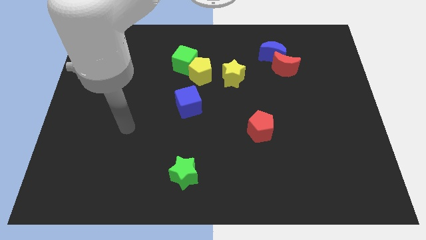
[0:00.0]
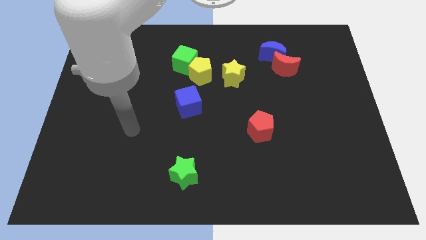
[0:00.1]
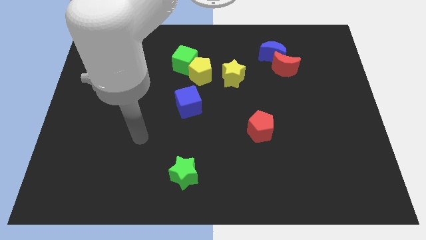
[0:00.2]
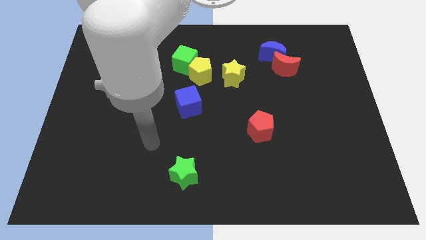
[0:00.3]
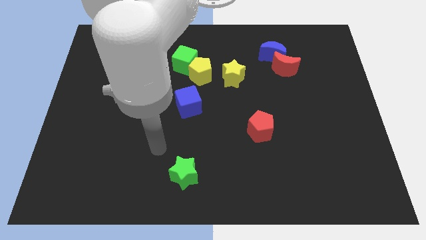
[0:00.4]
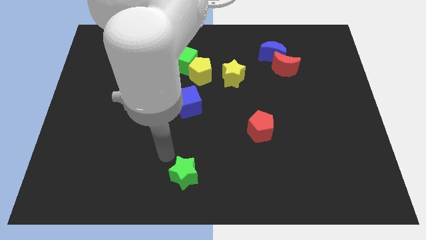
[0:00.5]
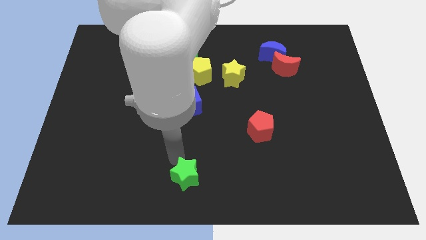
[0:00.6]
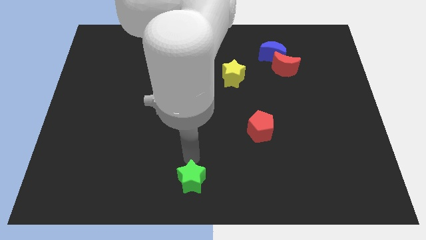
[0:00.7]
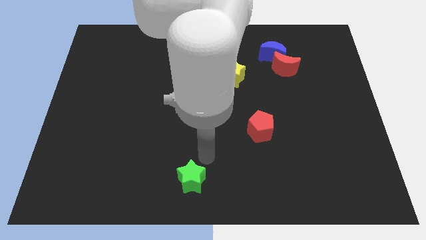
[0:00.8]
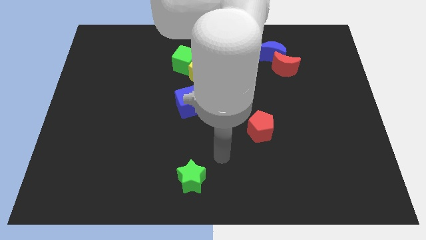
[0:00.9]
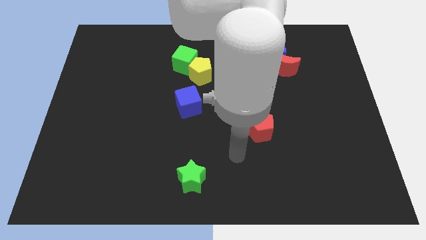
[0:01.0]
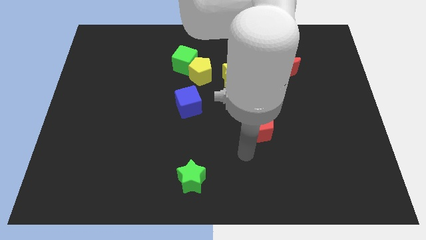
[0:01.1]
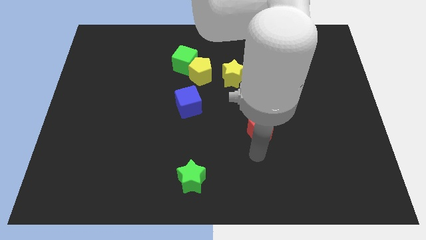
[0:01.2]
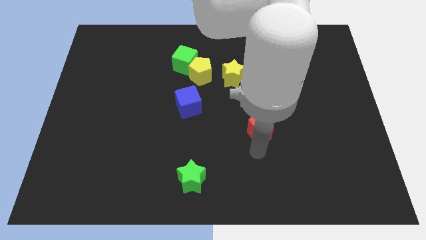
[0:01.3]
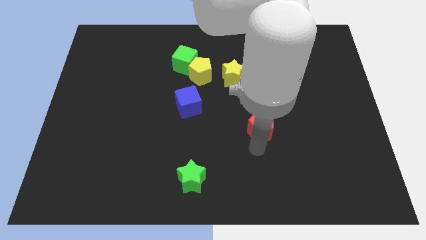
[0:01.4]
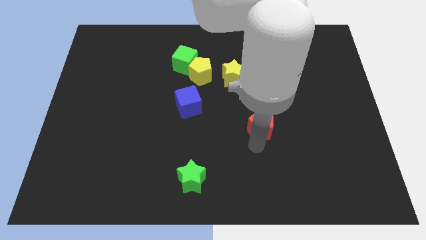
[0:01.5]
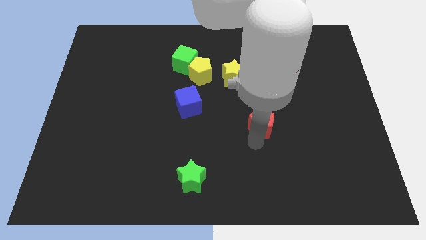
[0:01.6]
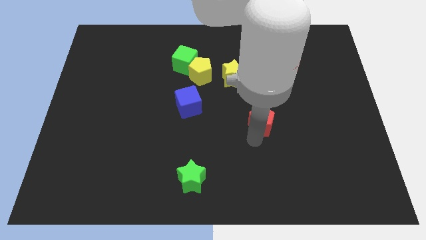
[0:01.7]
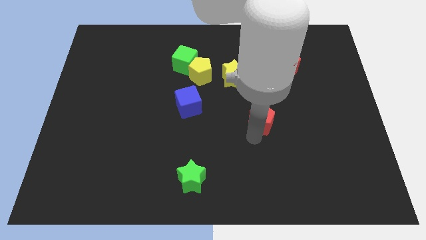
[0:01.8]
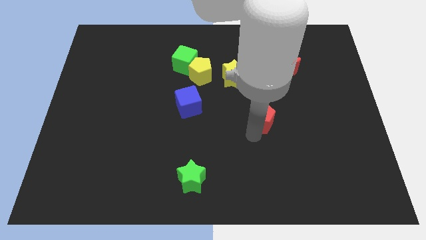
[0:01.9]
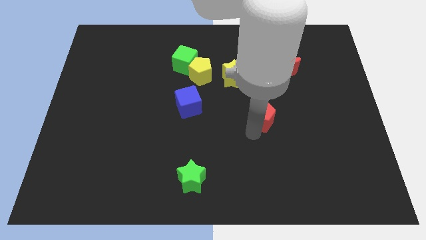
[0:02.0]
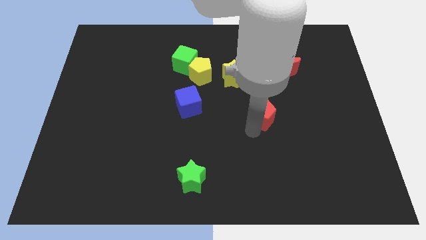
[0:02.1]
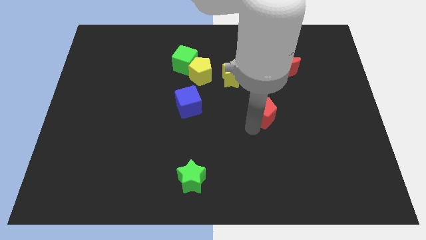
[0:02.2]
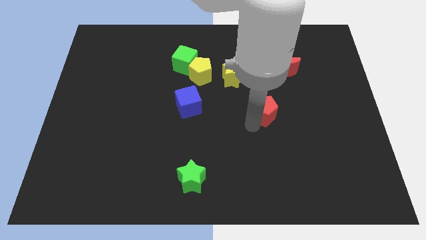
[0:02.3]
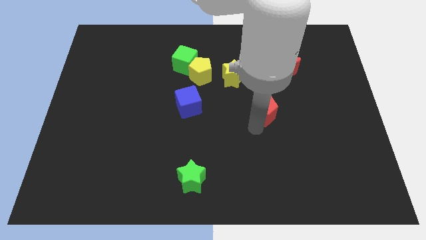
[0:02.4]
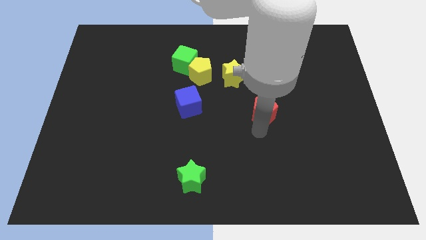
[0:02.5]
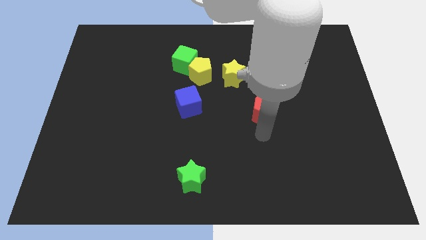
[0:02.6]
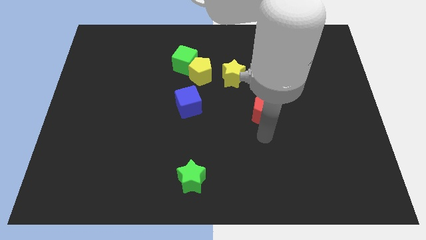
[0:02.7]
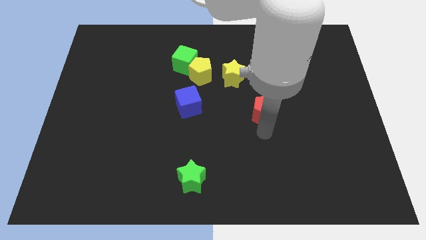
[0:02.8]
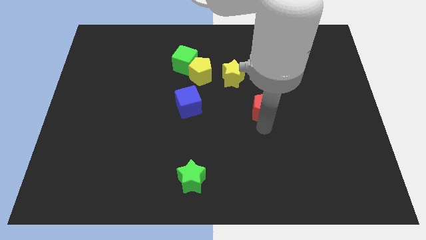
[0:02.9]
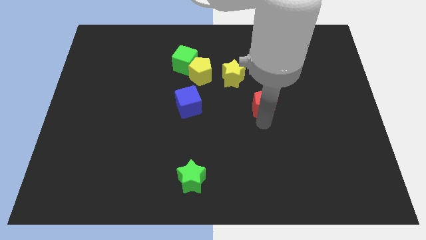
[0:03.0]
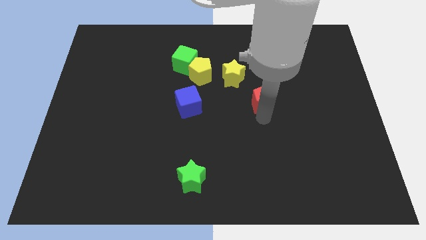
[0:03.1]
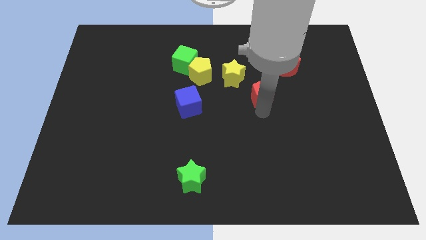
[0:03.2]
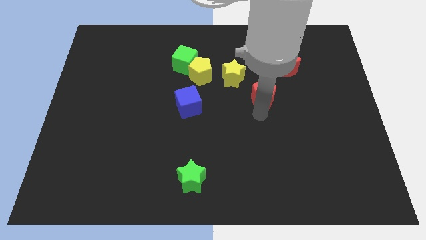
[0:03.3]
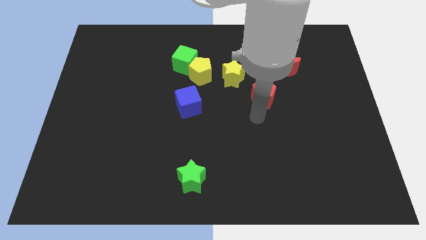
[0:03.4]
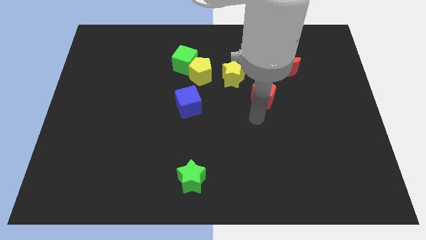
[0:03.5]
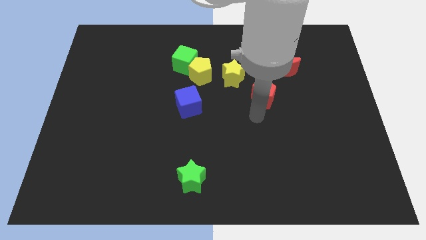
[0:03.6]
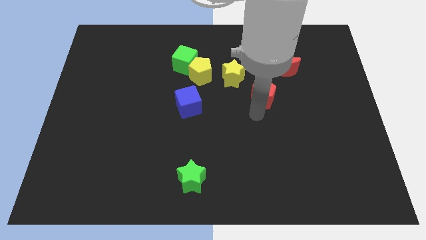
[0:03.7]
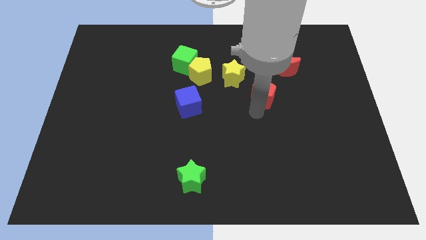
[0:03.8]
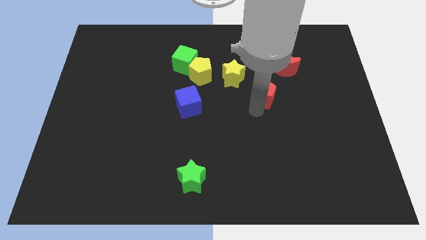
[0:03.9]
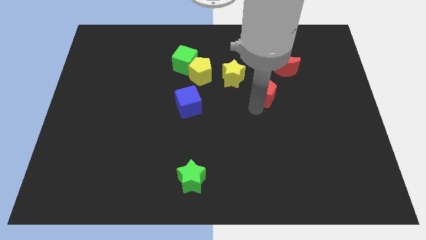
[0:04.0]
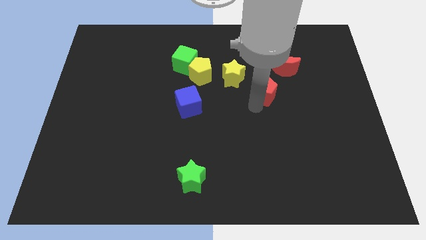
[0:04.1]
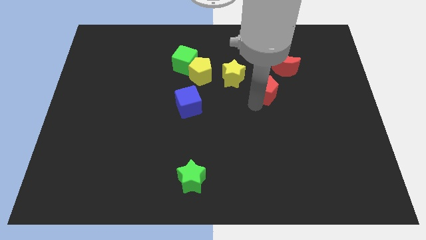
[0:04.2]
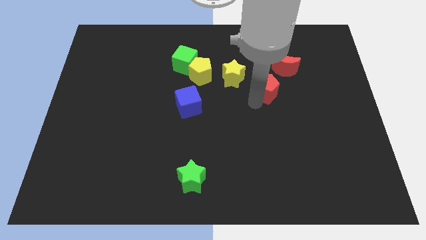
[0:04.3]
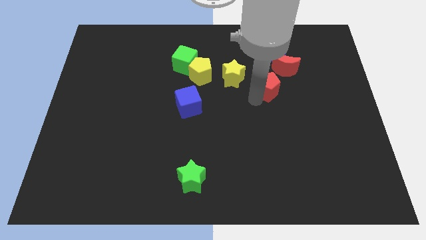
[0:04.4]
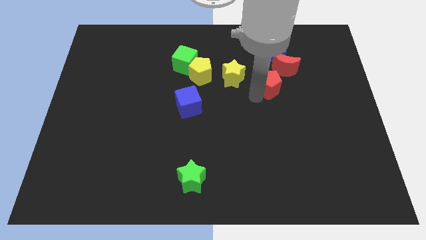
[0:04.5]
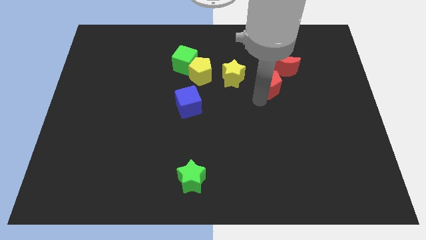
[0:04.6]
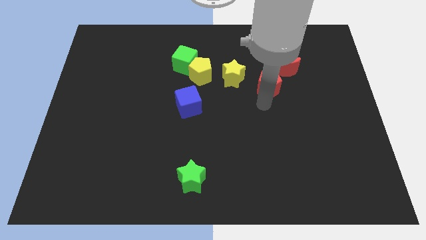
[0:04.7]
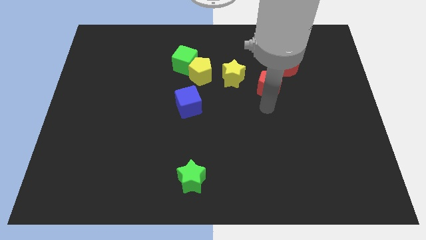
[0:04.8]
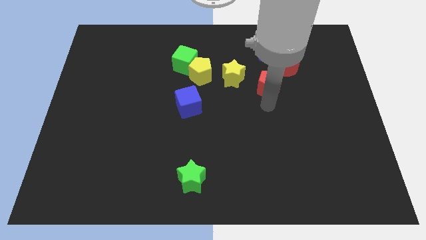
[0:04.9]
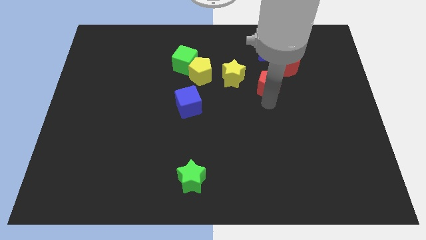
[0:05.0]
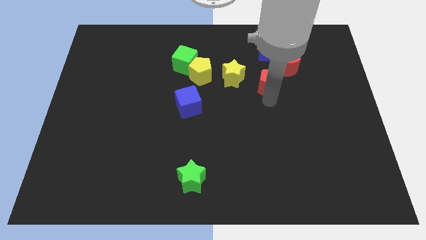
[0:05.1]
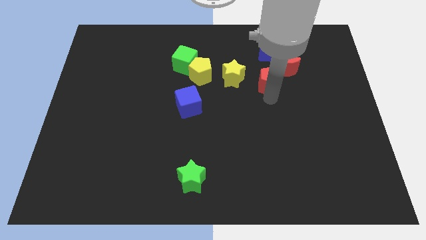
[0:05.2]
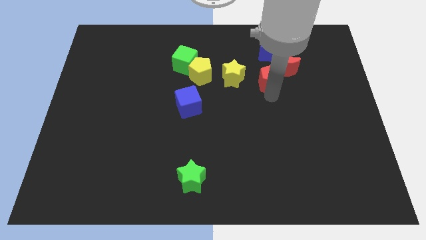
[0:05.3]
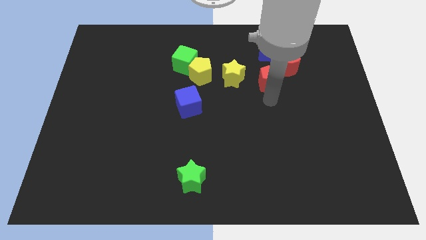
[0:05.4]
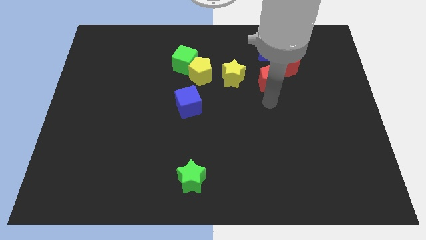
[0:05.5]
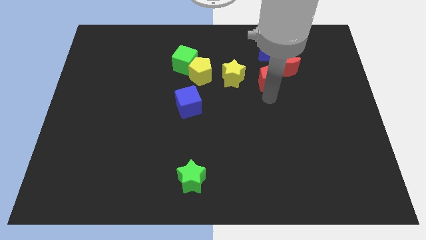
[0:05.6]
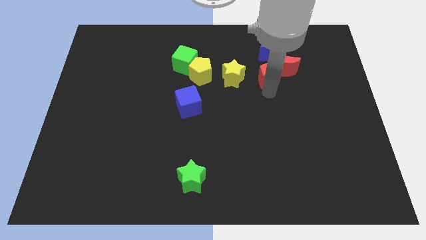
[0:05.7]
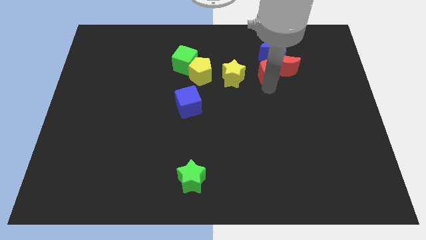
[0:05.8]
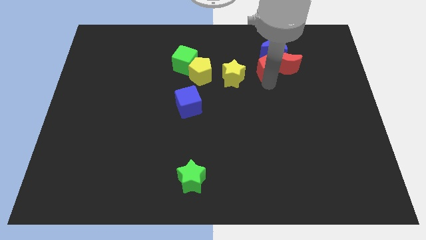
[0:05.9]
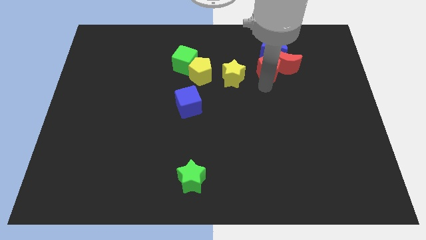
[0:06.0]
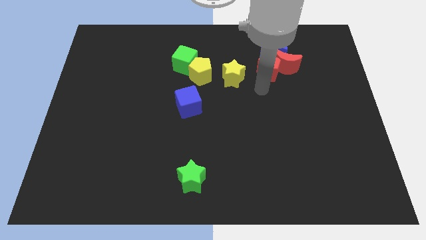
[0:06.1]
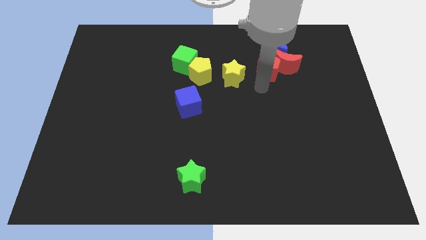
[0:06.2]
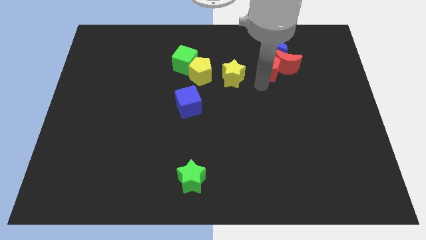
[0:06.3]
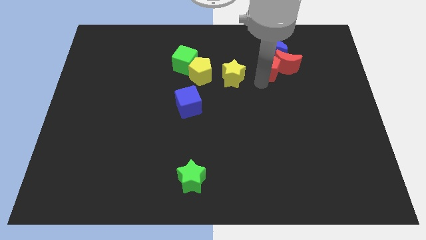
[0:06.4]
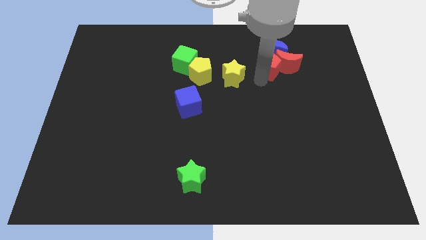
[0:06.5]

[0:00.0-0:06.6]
move the red pentagon to the blue moon

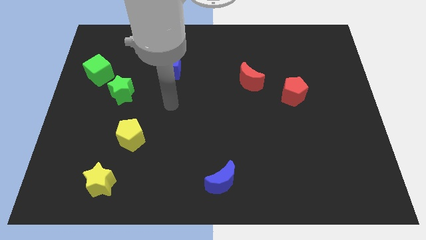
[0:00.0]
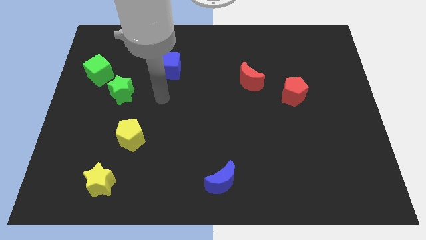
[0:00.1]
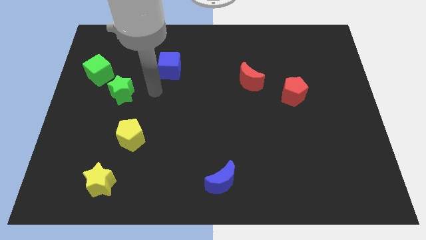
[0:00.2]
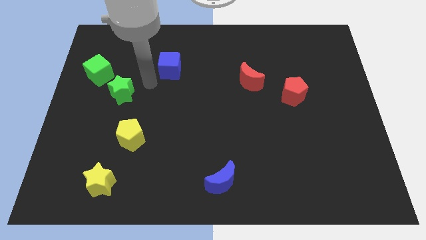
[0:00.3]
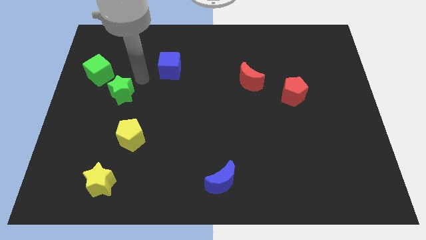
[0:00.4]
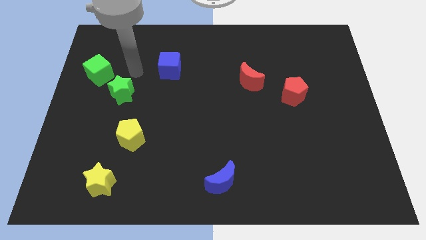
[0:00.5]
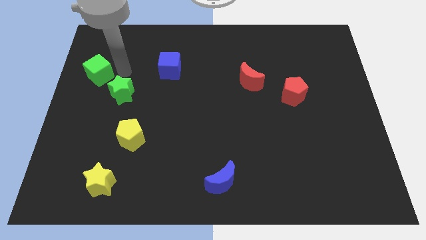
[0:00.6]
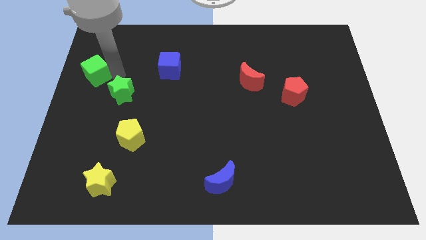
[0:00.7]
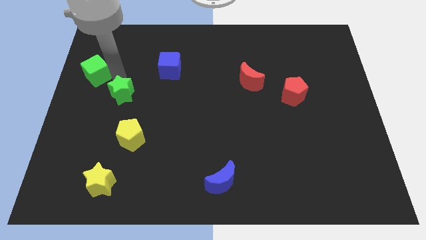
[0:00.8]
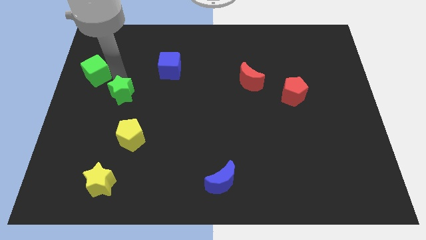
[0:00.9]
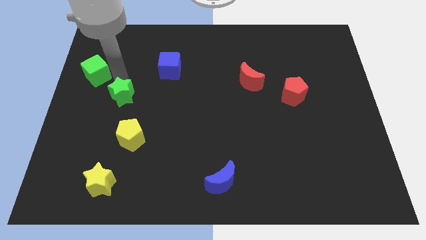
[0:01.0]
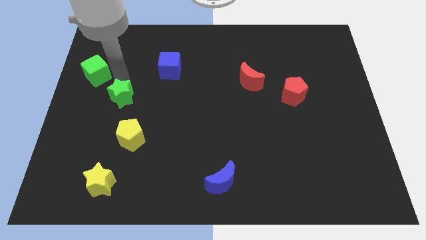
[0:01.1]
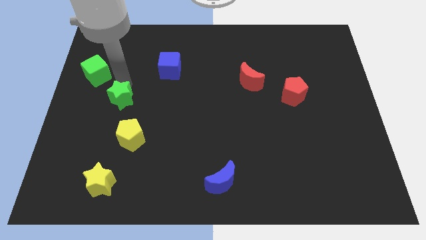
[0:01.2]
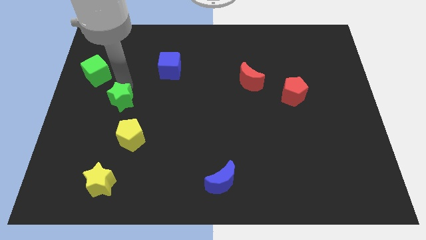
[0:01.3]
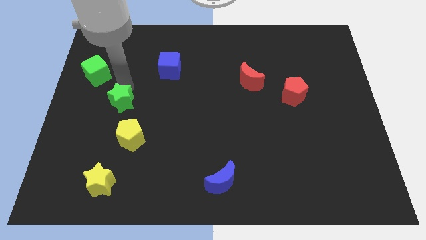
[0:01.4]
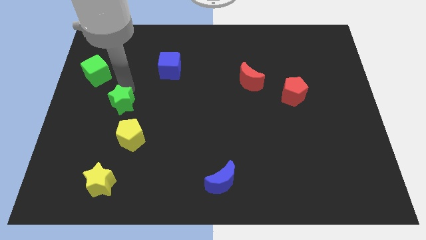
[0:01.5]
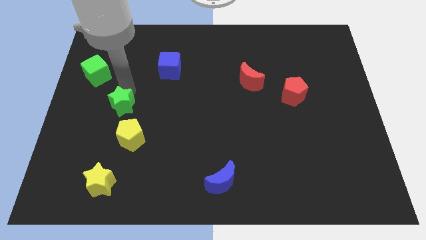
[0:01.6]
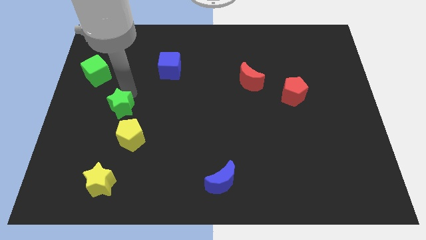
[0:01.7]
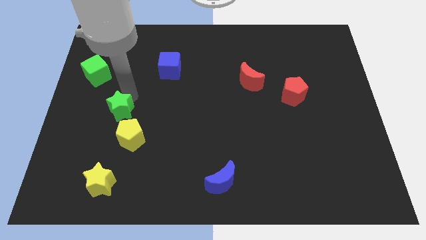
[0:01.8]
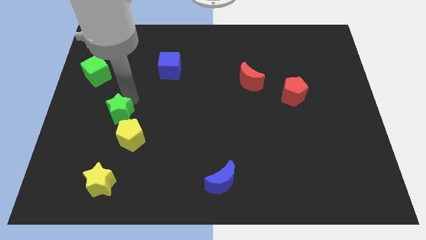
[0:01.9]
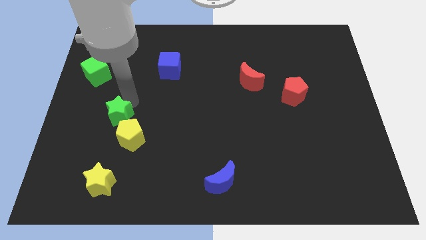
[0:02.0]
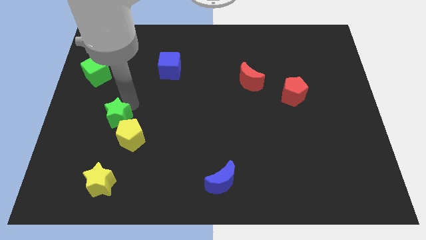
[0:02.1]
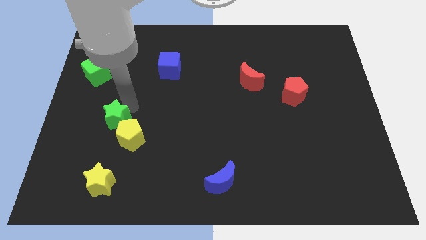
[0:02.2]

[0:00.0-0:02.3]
put the green star close to the yellow pentagon
